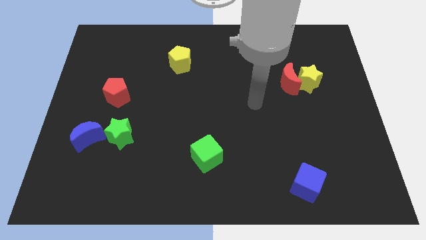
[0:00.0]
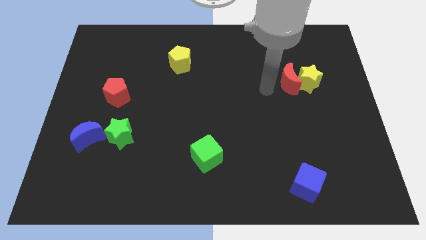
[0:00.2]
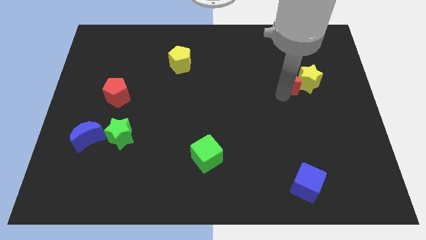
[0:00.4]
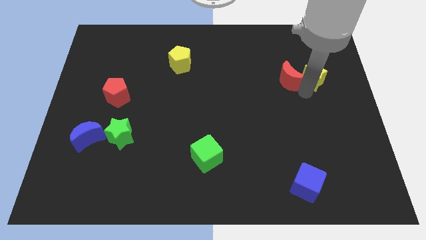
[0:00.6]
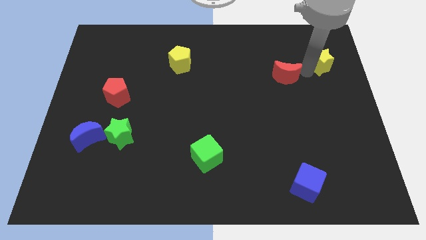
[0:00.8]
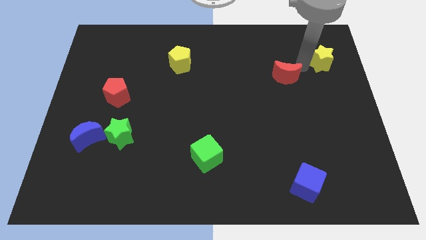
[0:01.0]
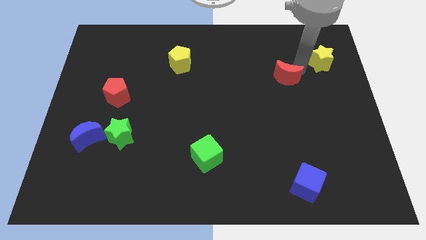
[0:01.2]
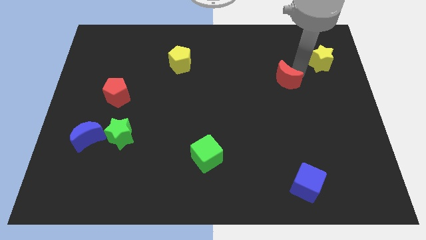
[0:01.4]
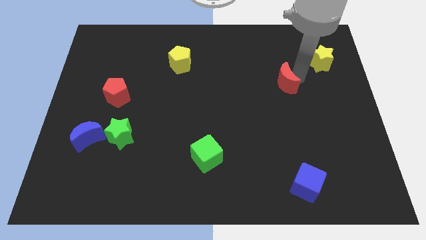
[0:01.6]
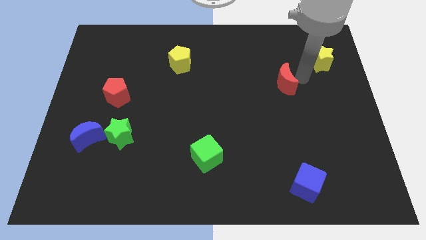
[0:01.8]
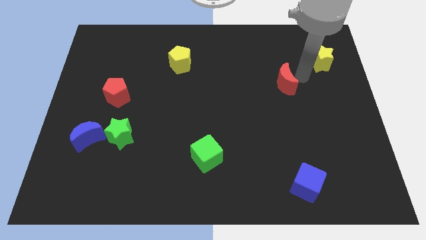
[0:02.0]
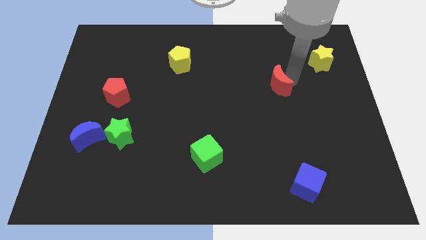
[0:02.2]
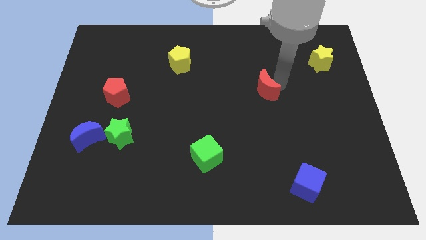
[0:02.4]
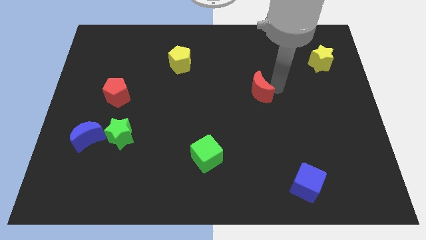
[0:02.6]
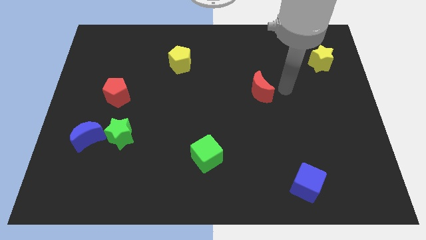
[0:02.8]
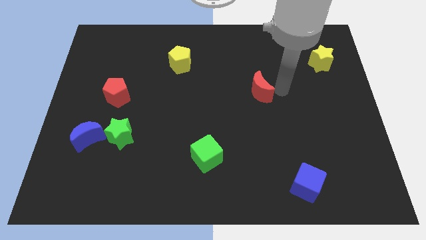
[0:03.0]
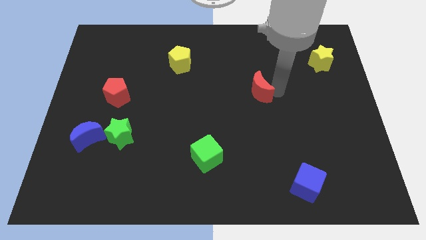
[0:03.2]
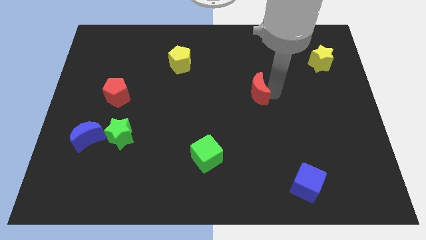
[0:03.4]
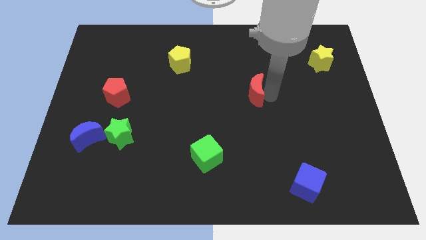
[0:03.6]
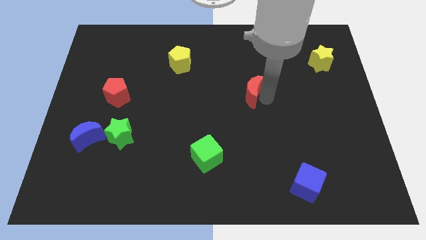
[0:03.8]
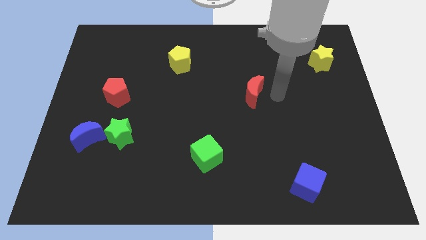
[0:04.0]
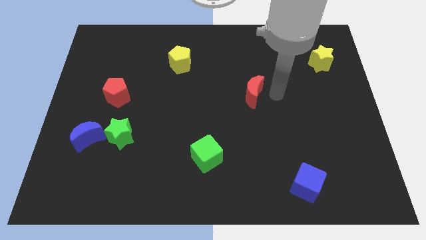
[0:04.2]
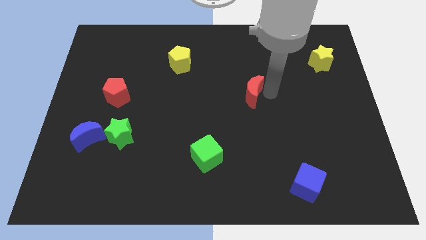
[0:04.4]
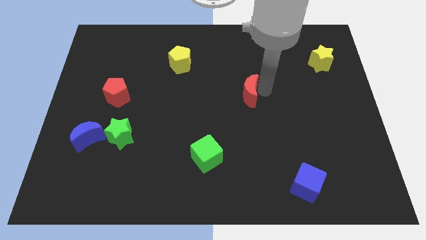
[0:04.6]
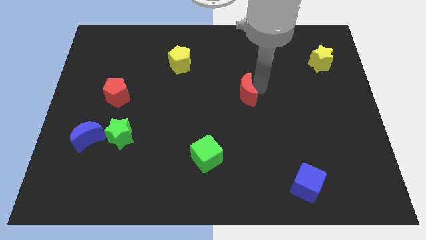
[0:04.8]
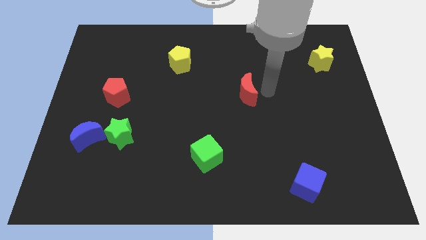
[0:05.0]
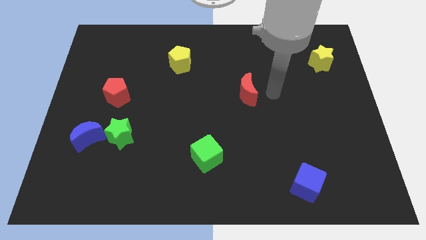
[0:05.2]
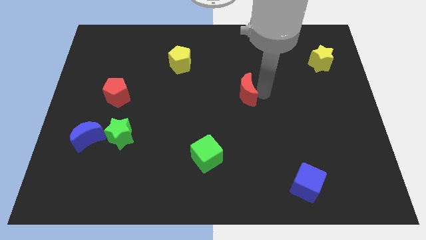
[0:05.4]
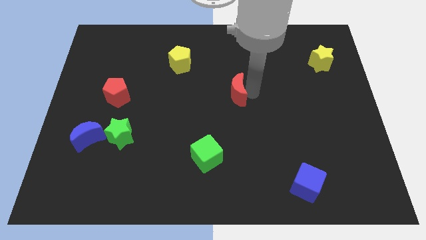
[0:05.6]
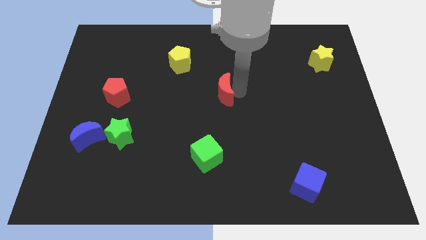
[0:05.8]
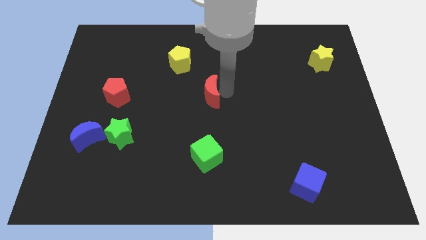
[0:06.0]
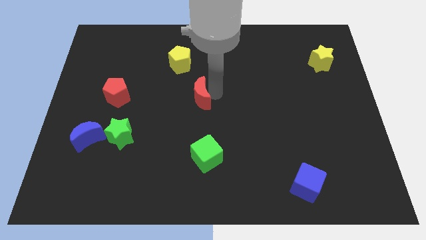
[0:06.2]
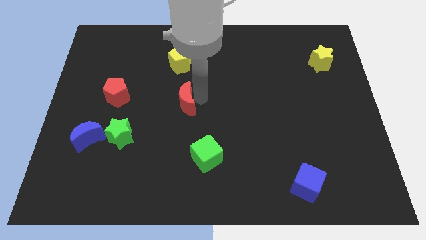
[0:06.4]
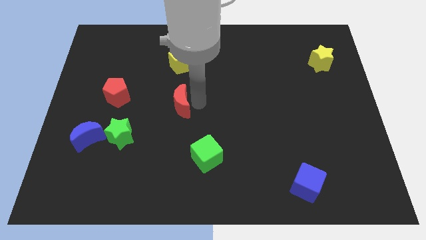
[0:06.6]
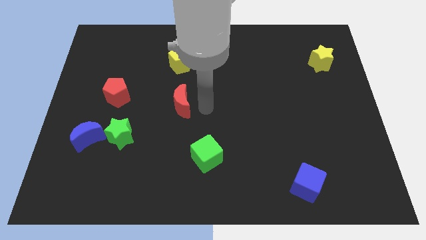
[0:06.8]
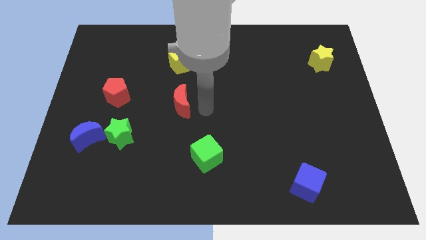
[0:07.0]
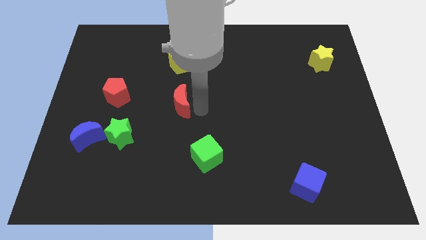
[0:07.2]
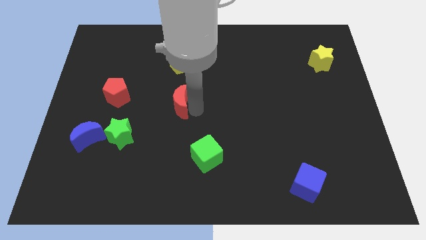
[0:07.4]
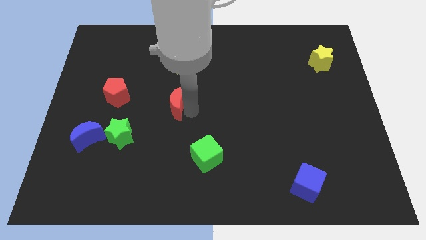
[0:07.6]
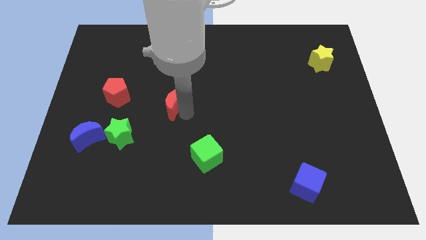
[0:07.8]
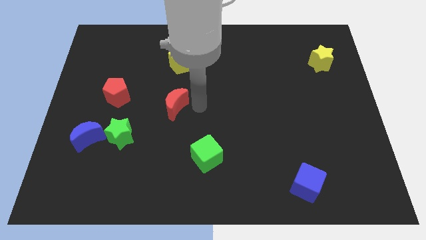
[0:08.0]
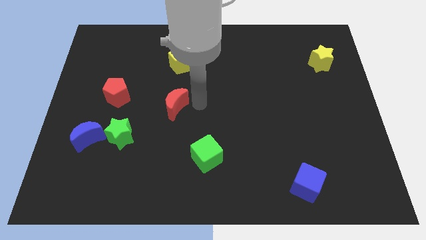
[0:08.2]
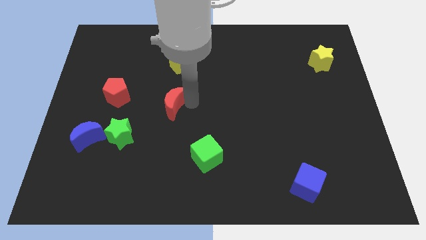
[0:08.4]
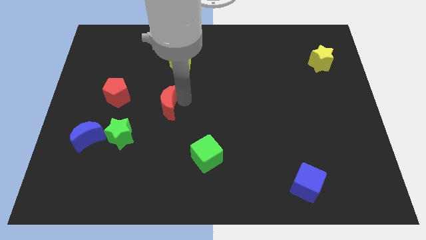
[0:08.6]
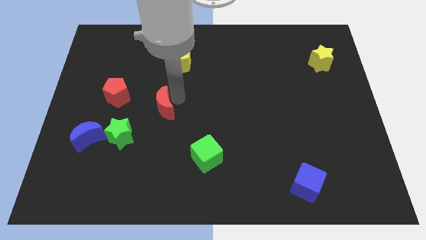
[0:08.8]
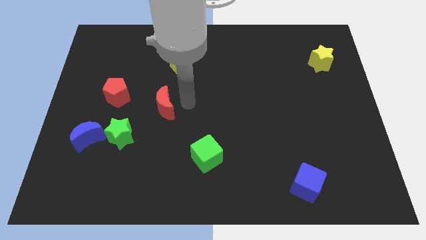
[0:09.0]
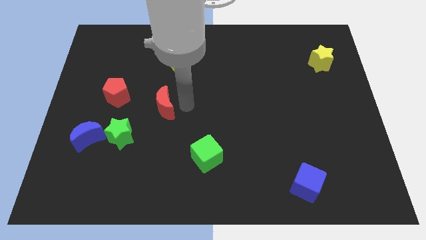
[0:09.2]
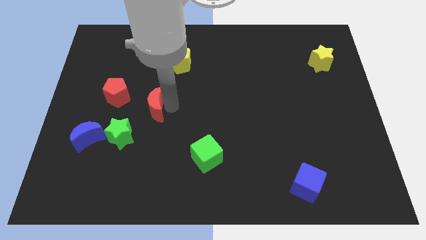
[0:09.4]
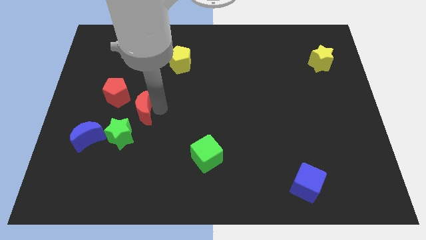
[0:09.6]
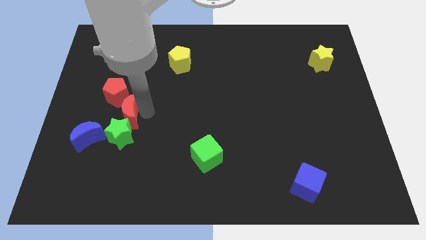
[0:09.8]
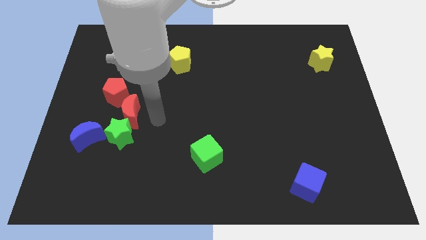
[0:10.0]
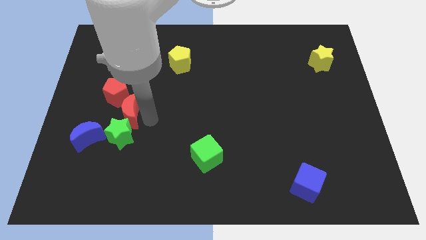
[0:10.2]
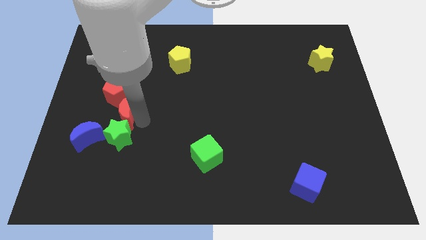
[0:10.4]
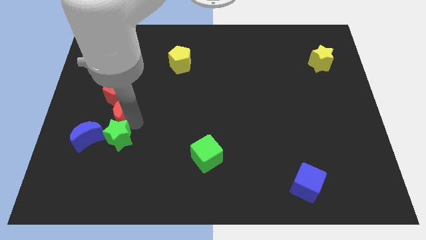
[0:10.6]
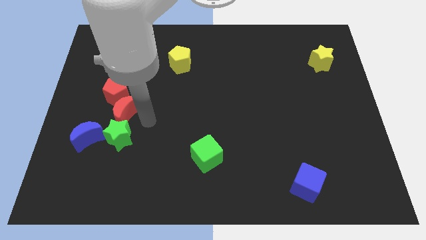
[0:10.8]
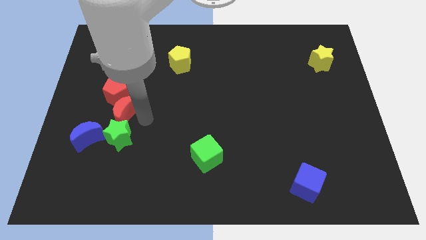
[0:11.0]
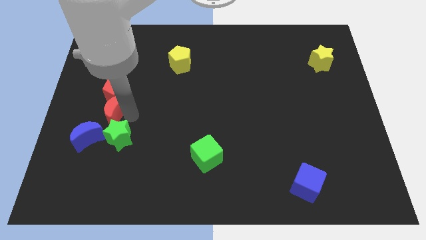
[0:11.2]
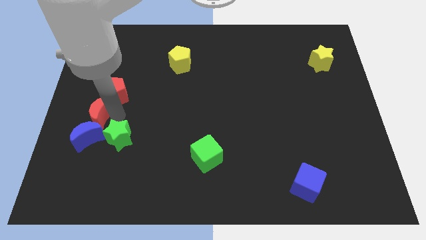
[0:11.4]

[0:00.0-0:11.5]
put the red moon to the center left
